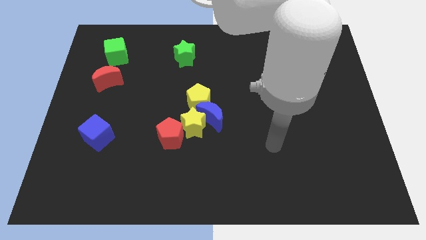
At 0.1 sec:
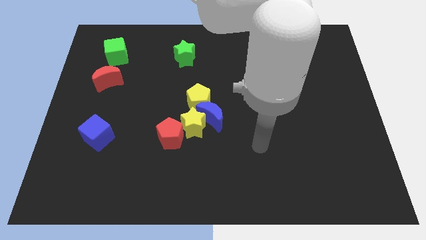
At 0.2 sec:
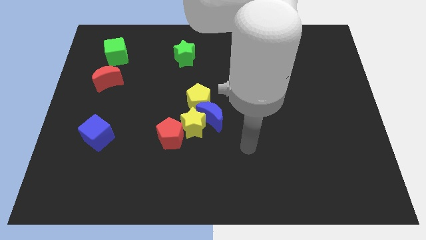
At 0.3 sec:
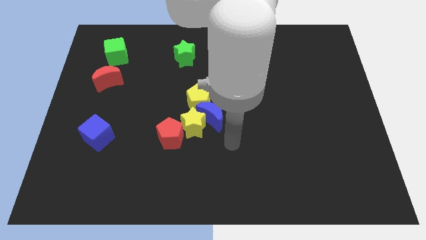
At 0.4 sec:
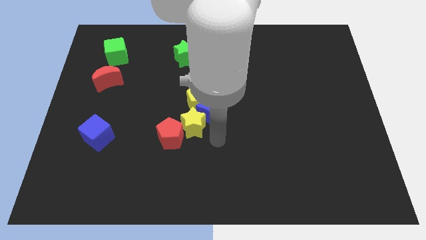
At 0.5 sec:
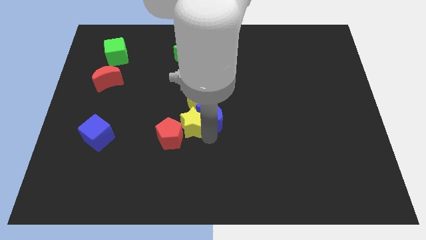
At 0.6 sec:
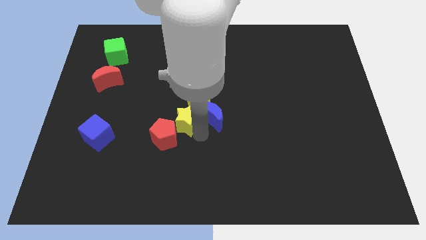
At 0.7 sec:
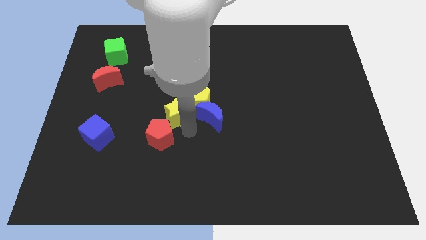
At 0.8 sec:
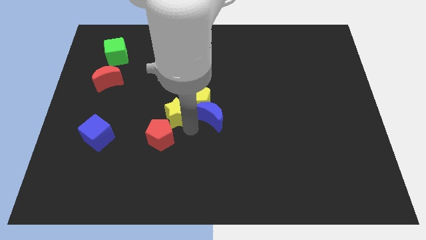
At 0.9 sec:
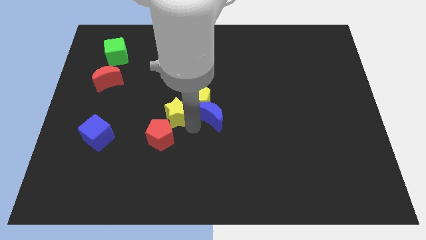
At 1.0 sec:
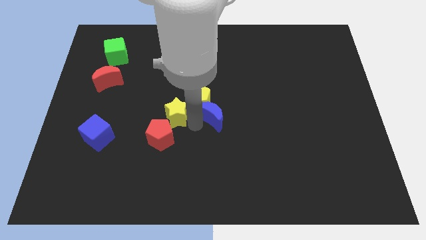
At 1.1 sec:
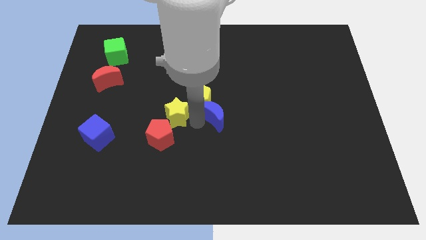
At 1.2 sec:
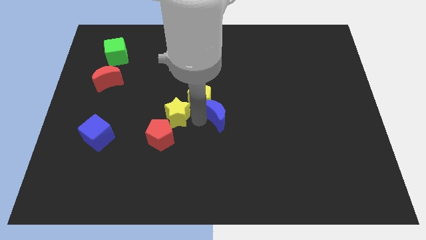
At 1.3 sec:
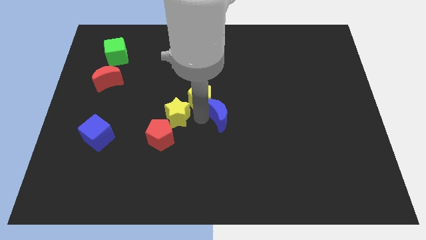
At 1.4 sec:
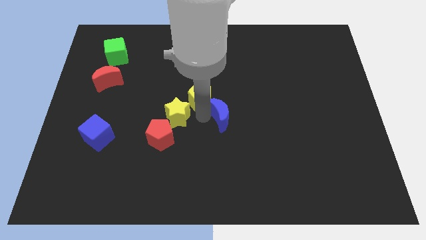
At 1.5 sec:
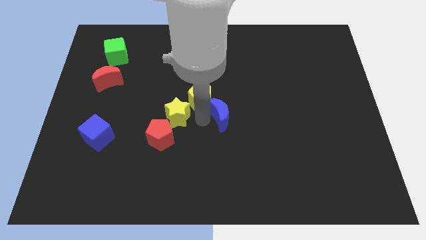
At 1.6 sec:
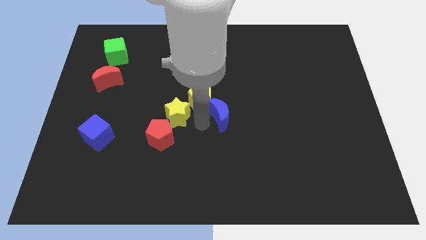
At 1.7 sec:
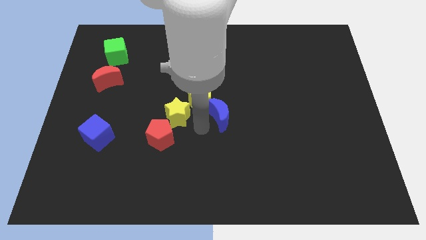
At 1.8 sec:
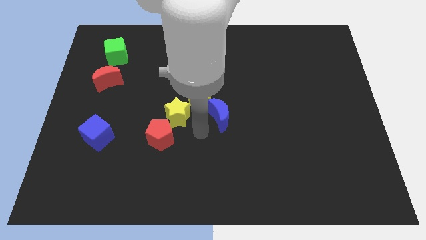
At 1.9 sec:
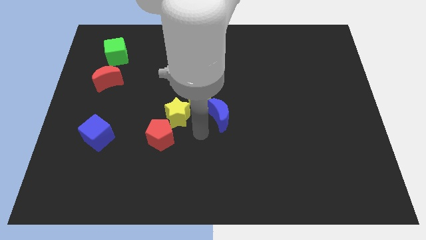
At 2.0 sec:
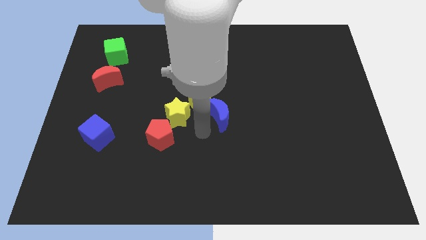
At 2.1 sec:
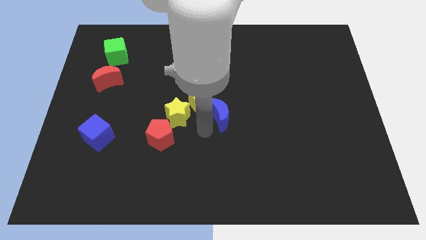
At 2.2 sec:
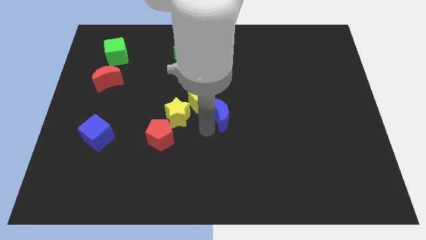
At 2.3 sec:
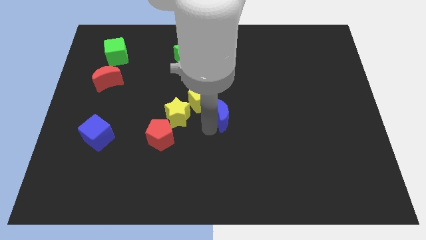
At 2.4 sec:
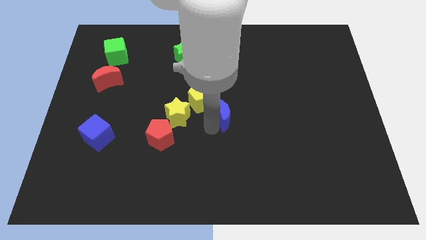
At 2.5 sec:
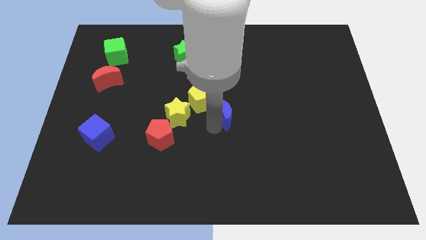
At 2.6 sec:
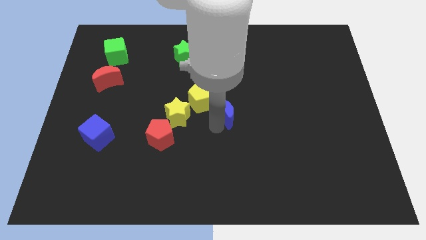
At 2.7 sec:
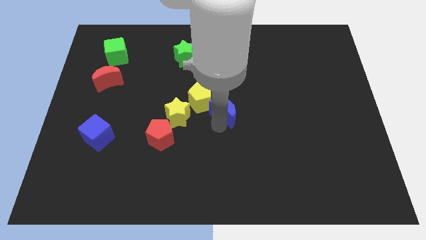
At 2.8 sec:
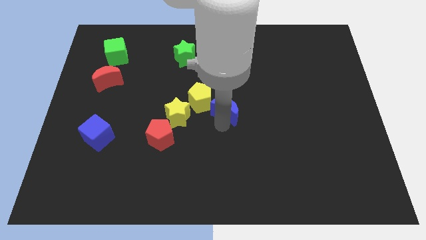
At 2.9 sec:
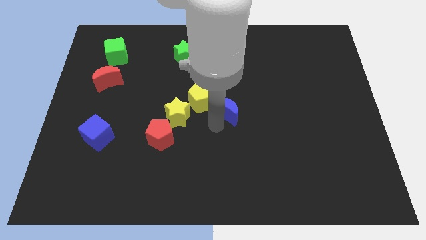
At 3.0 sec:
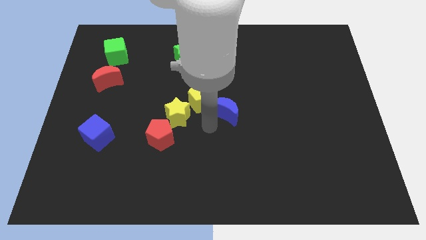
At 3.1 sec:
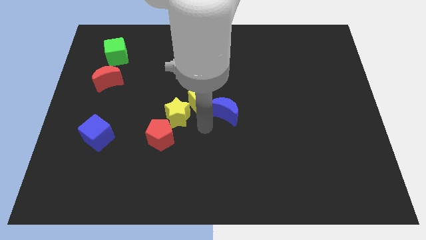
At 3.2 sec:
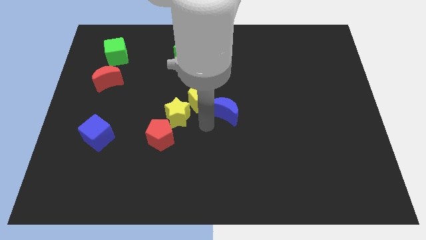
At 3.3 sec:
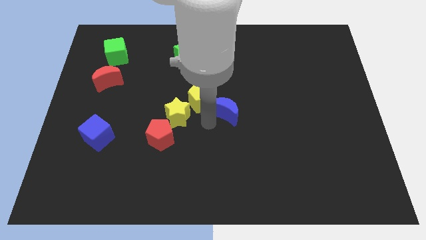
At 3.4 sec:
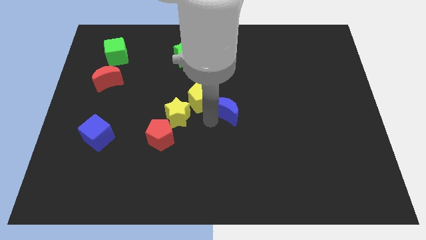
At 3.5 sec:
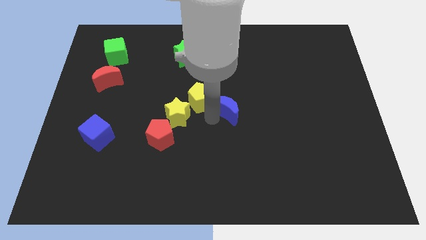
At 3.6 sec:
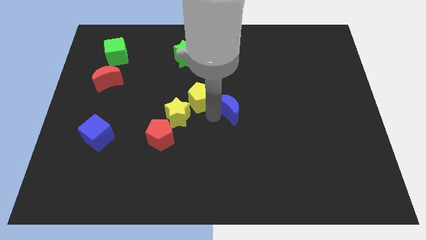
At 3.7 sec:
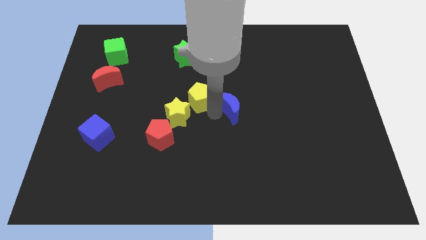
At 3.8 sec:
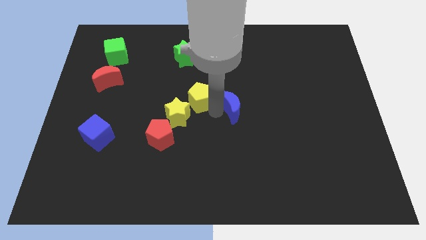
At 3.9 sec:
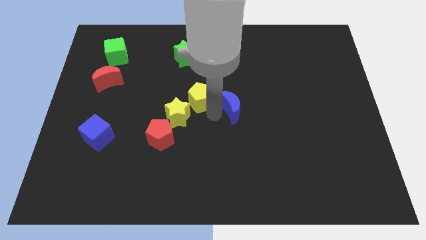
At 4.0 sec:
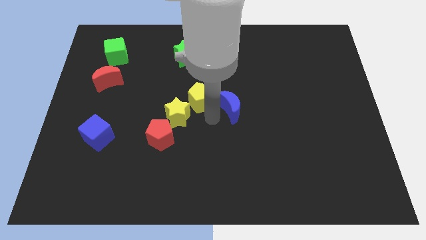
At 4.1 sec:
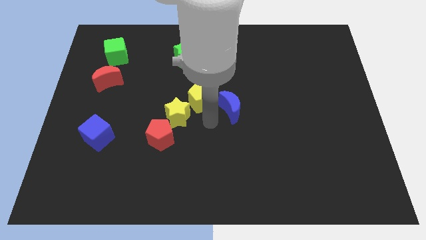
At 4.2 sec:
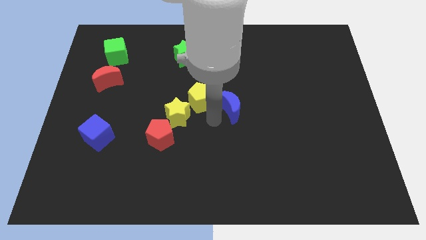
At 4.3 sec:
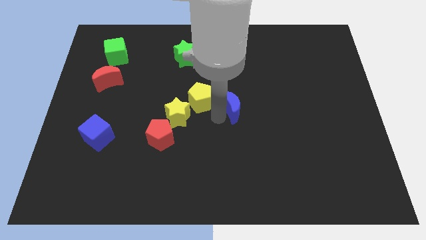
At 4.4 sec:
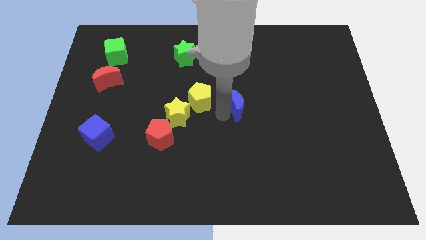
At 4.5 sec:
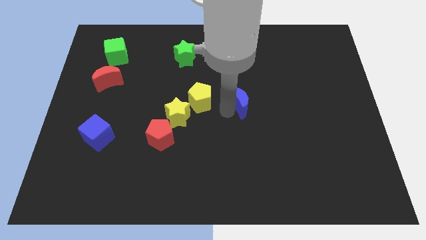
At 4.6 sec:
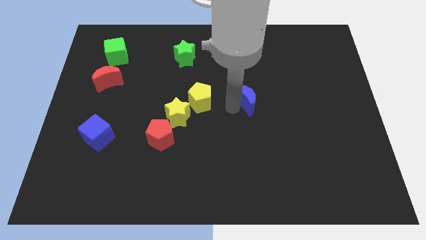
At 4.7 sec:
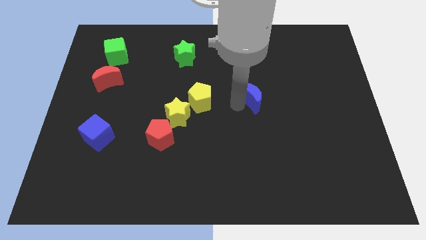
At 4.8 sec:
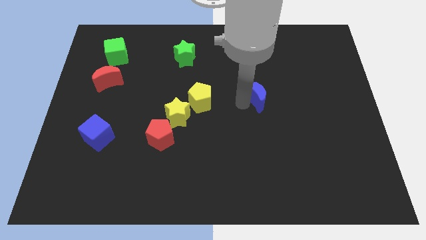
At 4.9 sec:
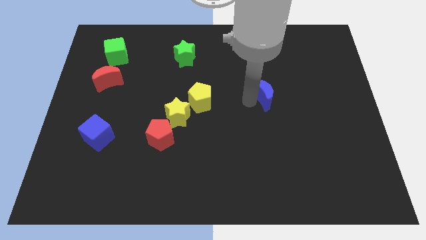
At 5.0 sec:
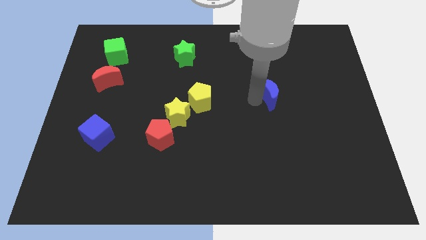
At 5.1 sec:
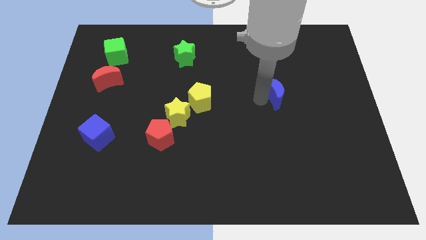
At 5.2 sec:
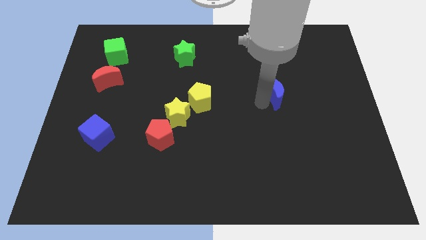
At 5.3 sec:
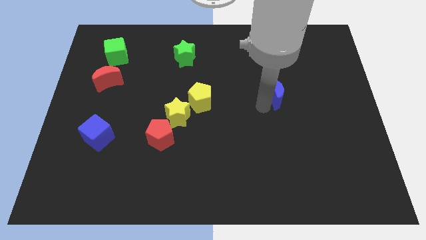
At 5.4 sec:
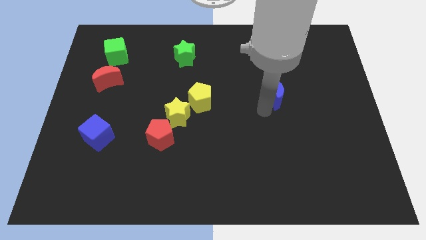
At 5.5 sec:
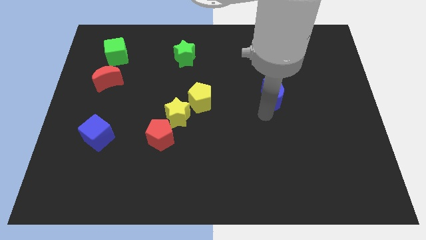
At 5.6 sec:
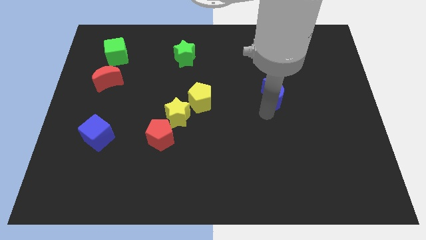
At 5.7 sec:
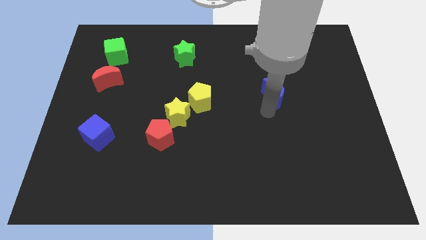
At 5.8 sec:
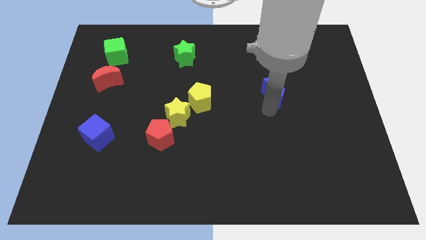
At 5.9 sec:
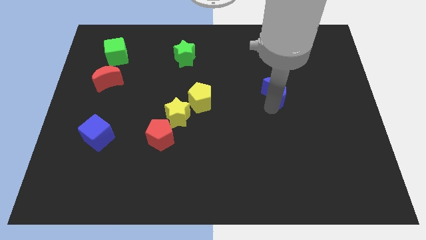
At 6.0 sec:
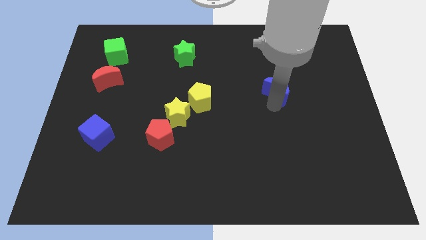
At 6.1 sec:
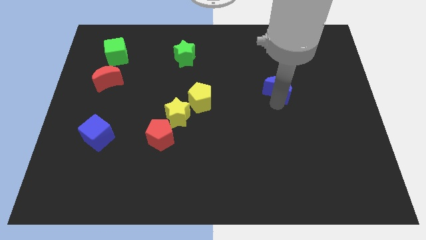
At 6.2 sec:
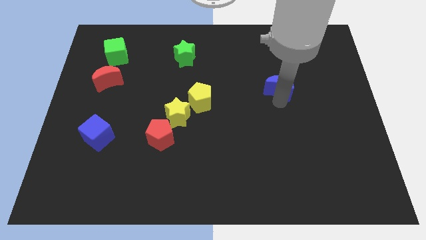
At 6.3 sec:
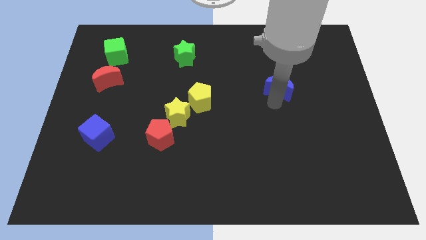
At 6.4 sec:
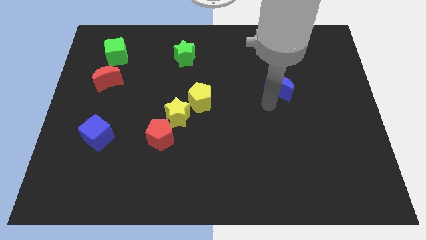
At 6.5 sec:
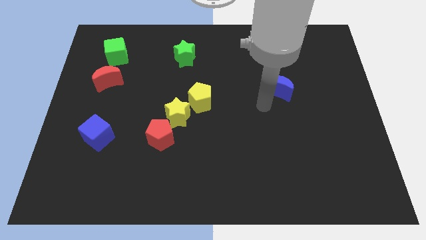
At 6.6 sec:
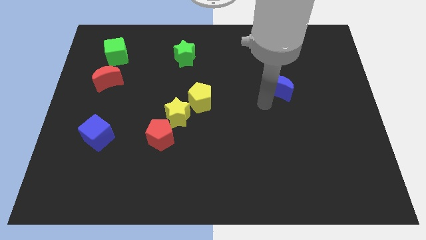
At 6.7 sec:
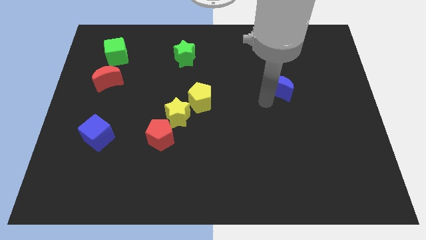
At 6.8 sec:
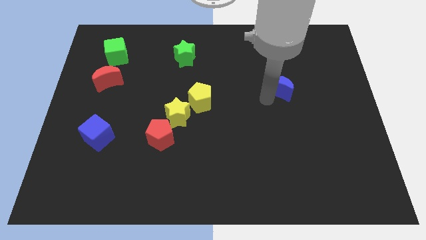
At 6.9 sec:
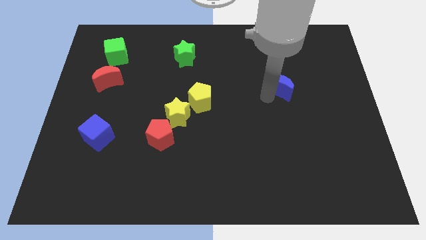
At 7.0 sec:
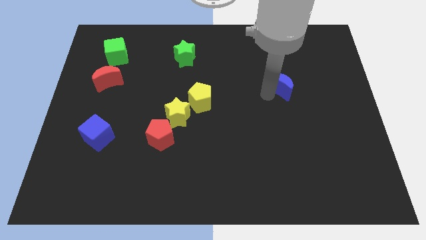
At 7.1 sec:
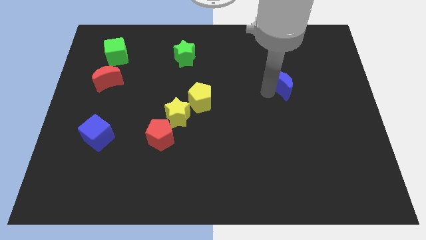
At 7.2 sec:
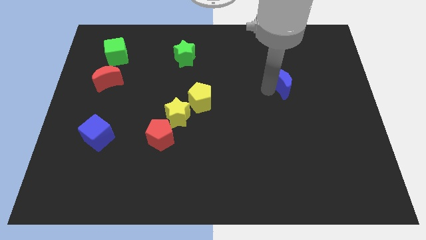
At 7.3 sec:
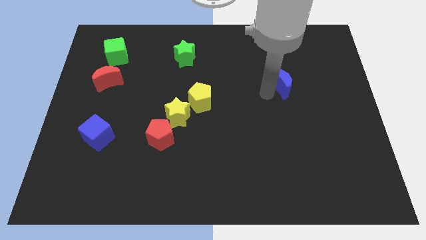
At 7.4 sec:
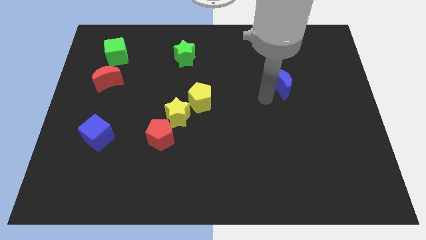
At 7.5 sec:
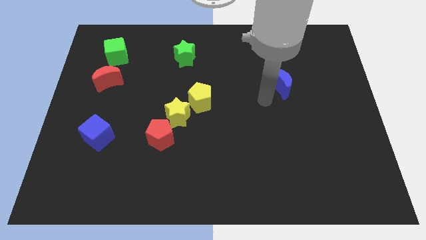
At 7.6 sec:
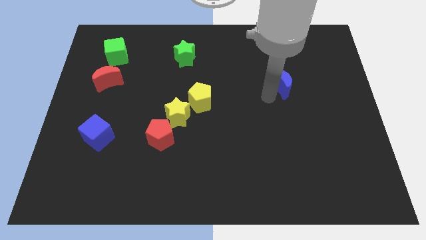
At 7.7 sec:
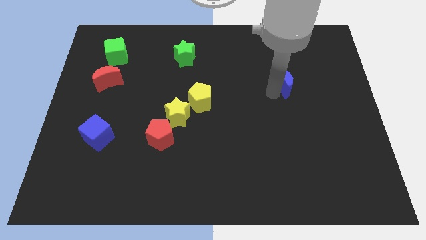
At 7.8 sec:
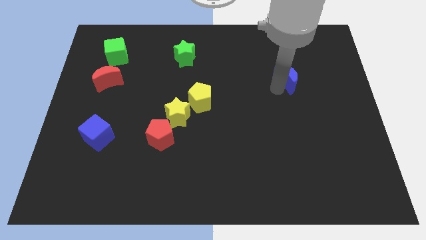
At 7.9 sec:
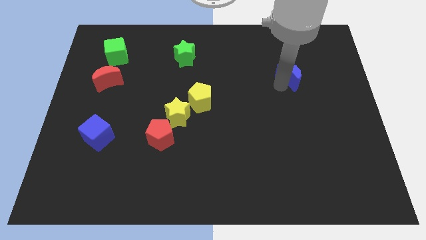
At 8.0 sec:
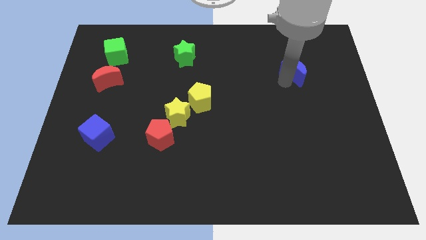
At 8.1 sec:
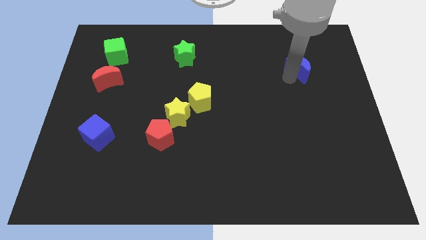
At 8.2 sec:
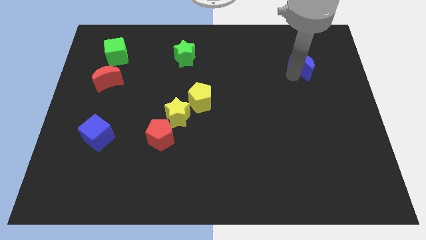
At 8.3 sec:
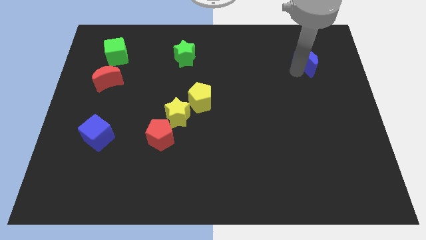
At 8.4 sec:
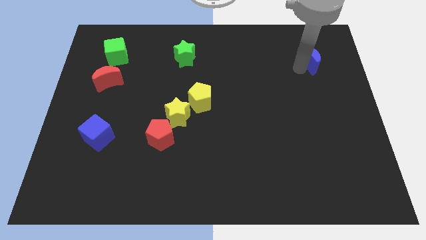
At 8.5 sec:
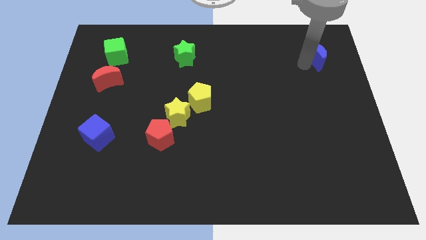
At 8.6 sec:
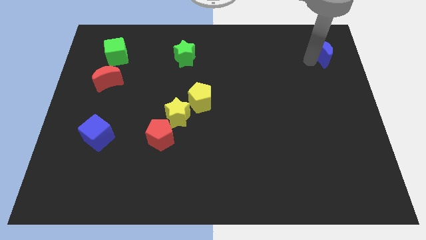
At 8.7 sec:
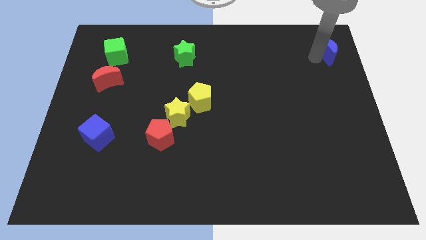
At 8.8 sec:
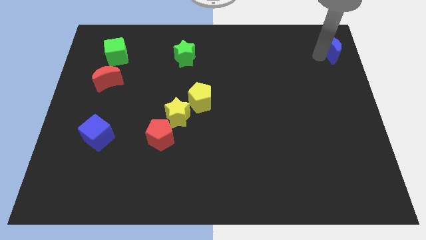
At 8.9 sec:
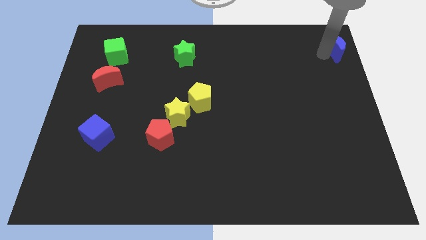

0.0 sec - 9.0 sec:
push the blue moon to the top right
